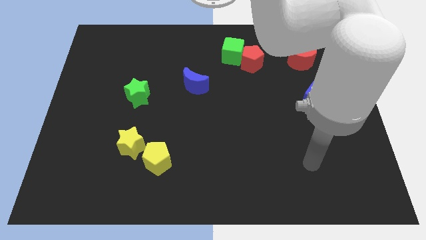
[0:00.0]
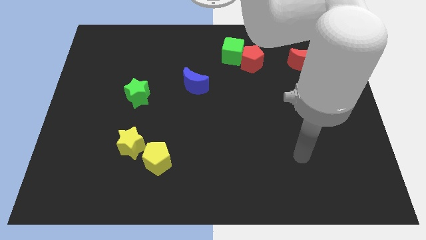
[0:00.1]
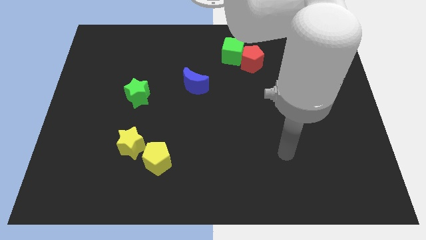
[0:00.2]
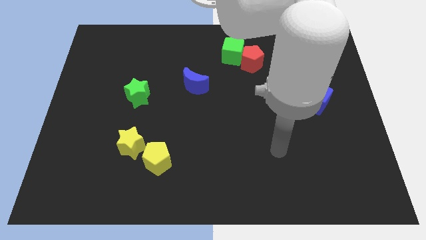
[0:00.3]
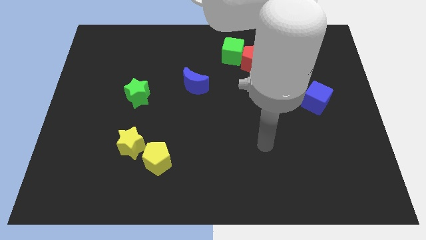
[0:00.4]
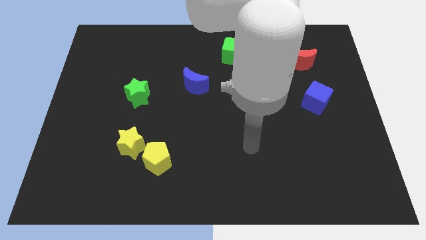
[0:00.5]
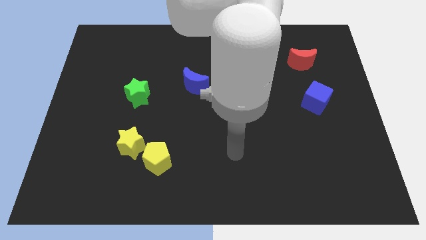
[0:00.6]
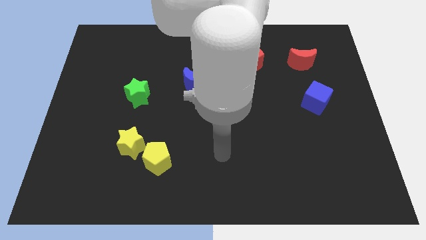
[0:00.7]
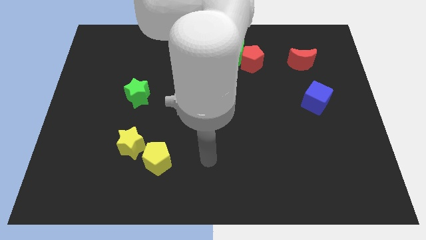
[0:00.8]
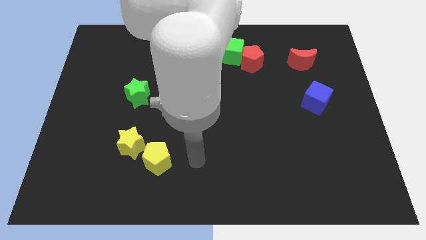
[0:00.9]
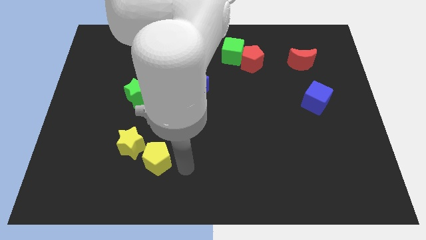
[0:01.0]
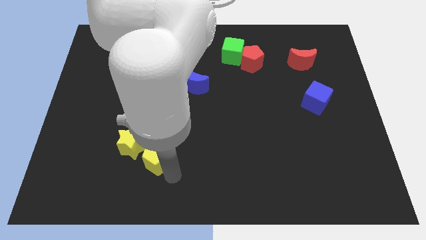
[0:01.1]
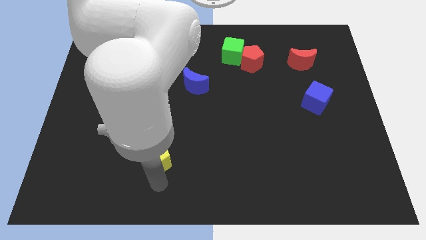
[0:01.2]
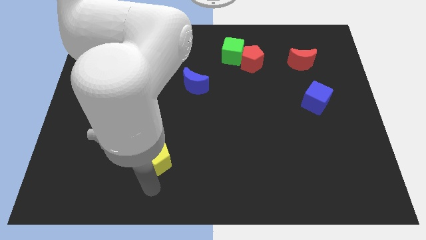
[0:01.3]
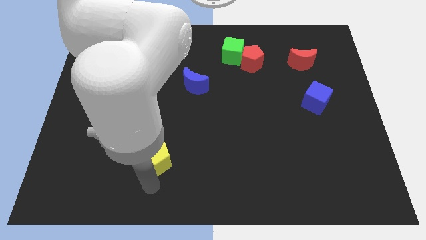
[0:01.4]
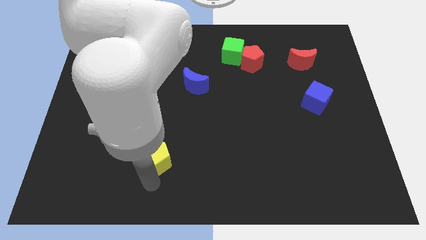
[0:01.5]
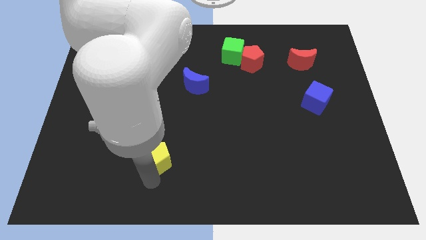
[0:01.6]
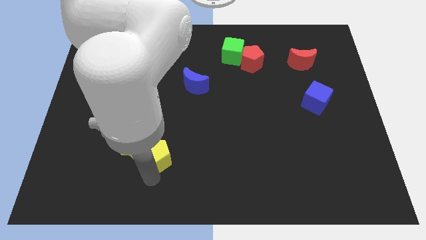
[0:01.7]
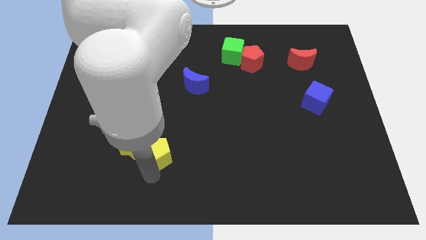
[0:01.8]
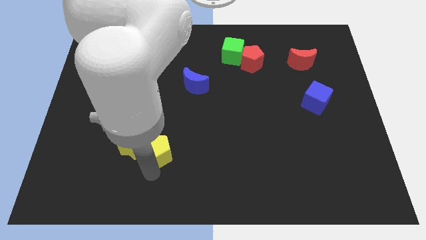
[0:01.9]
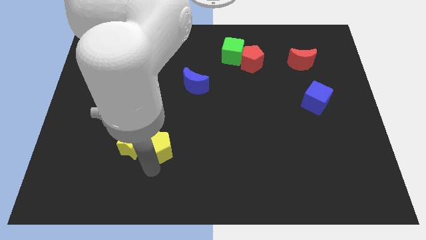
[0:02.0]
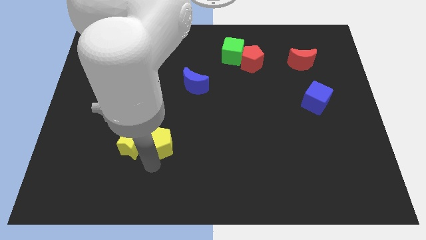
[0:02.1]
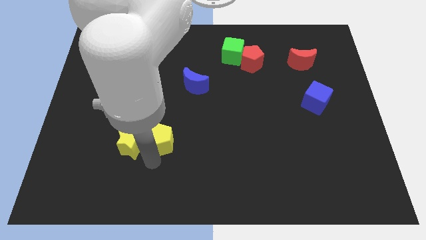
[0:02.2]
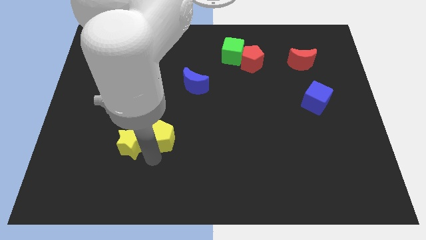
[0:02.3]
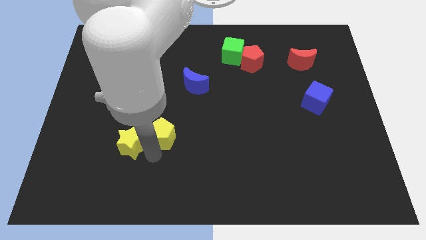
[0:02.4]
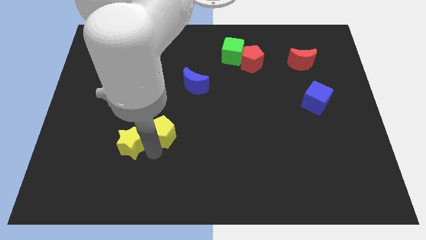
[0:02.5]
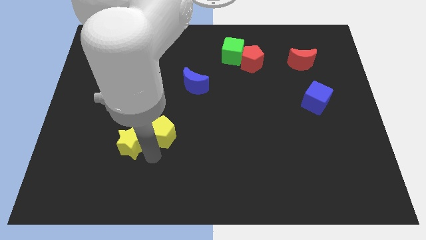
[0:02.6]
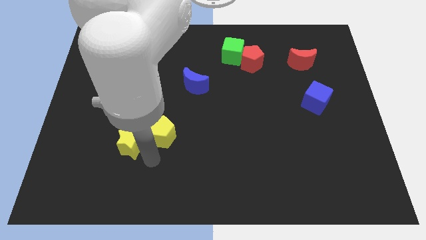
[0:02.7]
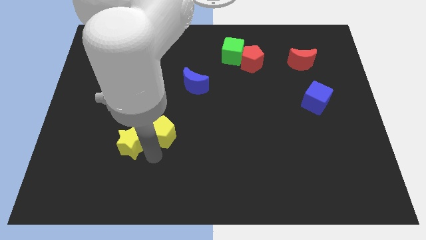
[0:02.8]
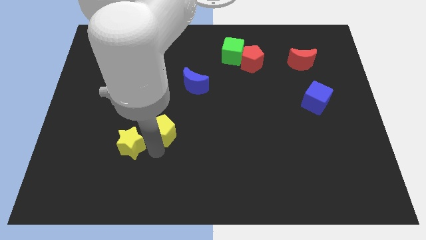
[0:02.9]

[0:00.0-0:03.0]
slide the yellow pentagon somewhat upwards

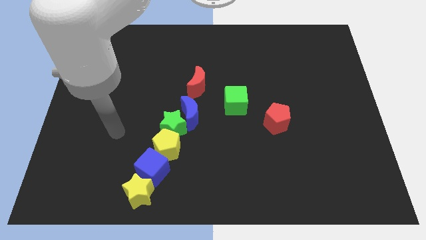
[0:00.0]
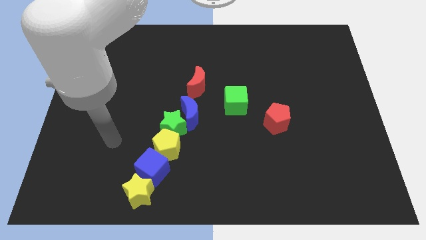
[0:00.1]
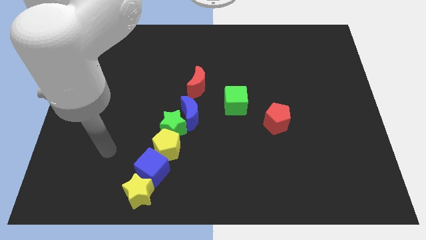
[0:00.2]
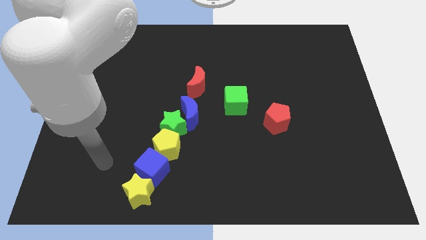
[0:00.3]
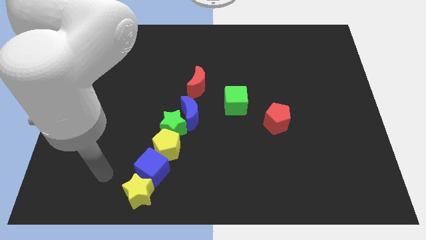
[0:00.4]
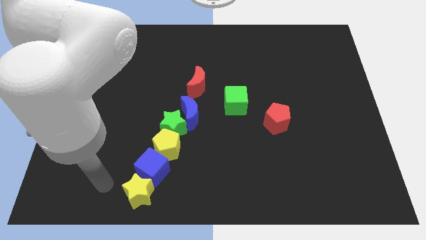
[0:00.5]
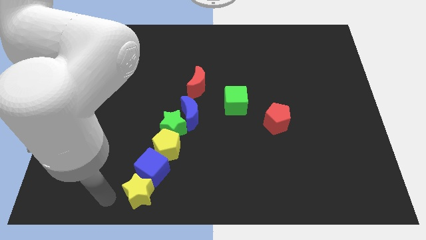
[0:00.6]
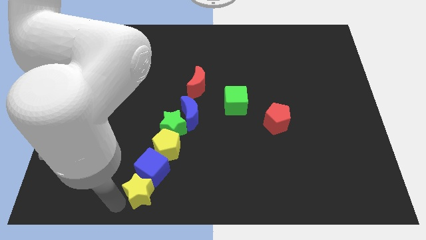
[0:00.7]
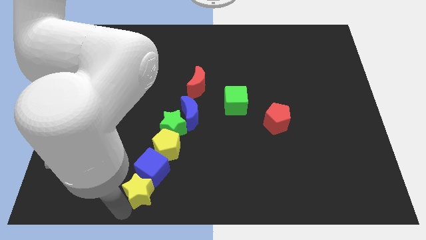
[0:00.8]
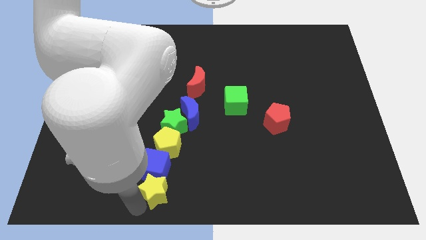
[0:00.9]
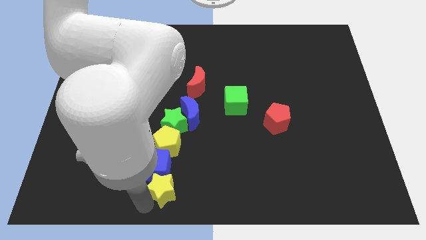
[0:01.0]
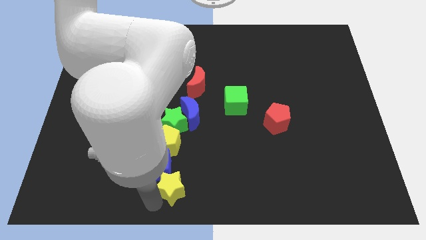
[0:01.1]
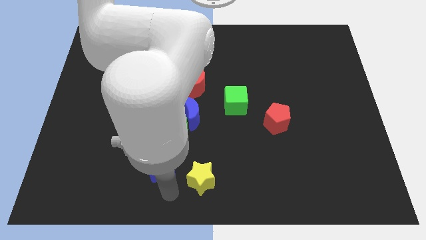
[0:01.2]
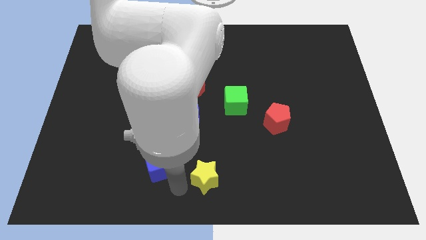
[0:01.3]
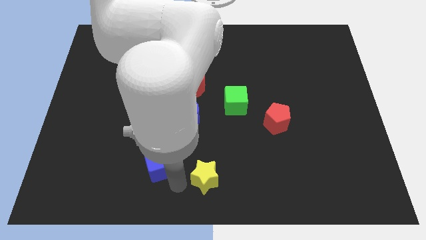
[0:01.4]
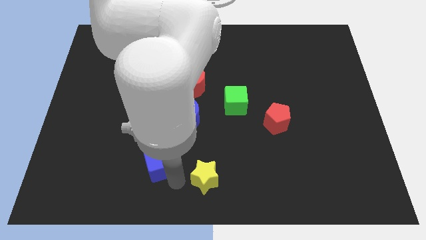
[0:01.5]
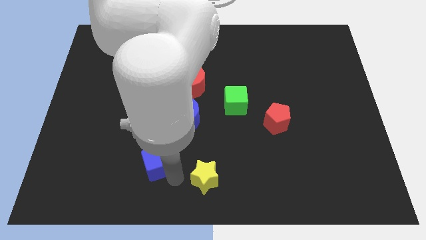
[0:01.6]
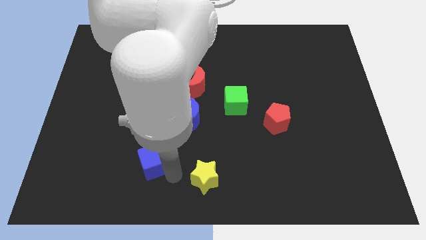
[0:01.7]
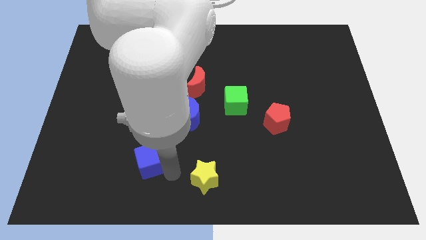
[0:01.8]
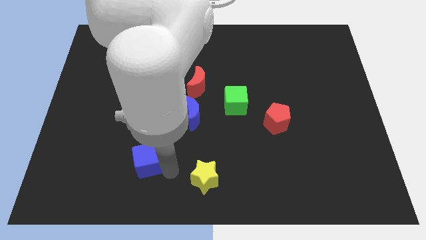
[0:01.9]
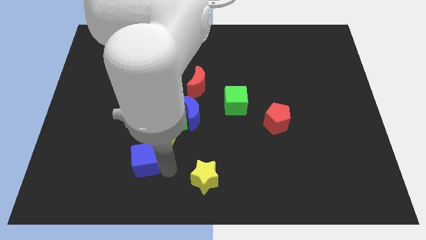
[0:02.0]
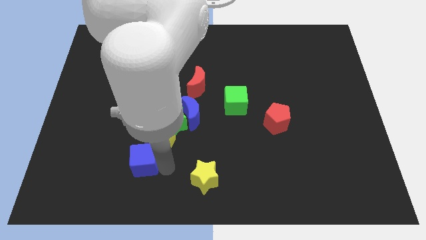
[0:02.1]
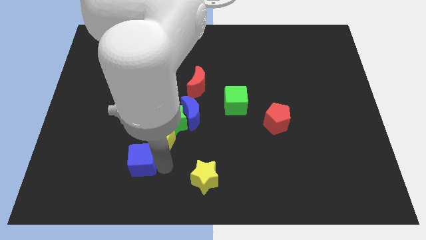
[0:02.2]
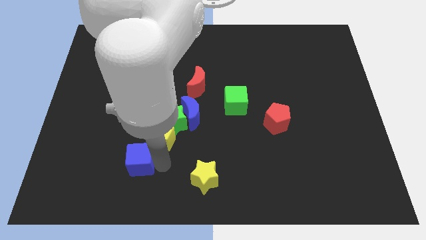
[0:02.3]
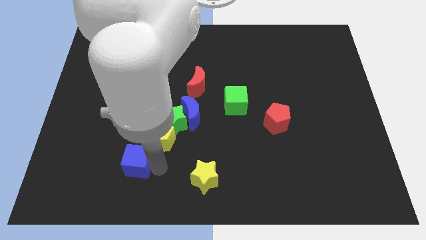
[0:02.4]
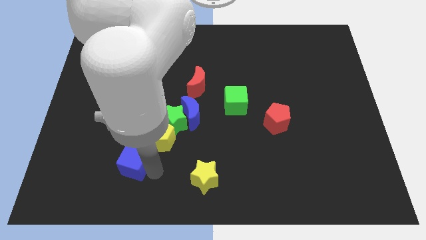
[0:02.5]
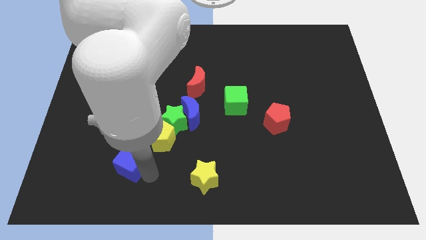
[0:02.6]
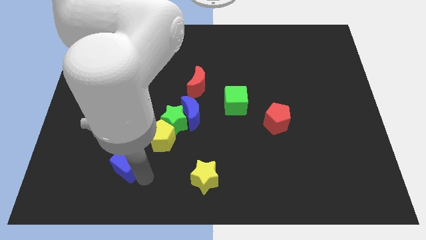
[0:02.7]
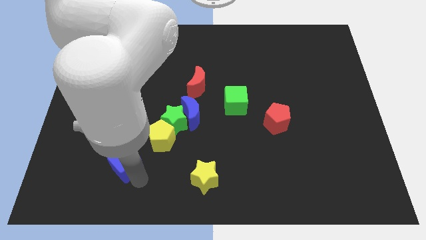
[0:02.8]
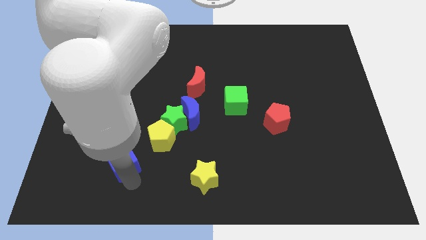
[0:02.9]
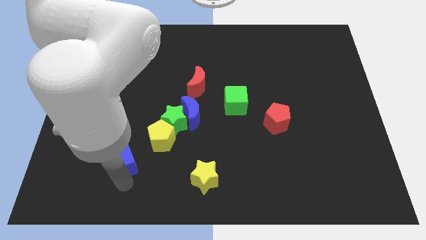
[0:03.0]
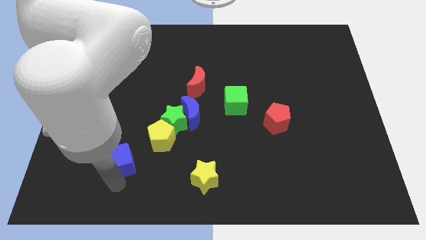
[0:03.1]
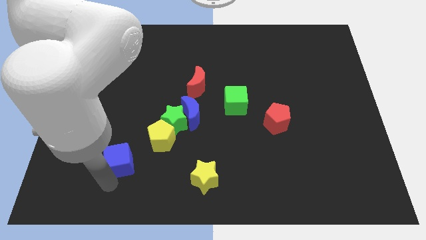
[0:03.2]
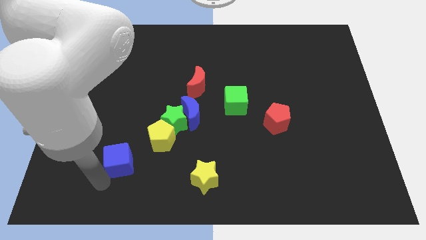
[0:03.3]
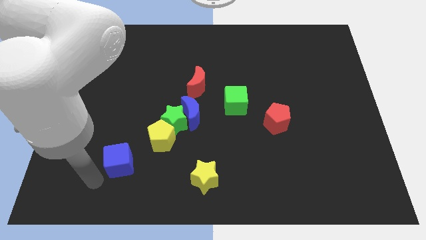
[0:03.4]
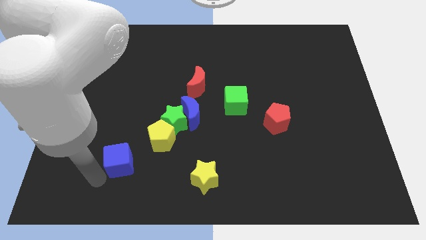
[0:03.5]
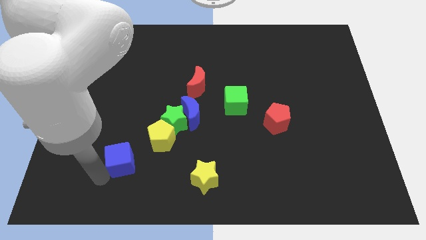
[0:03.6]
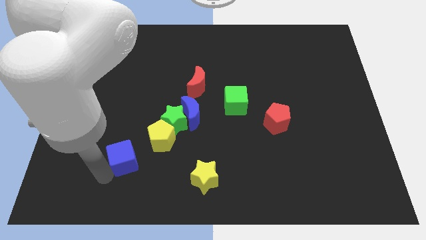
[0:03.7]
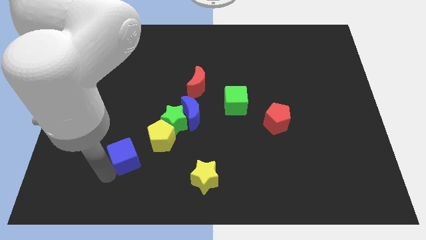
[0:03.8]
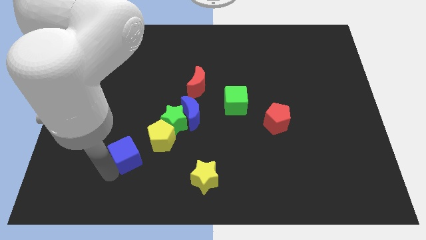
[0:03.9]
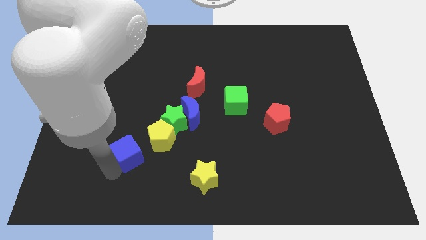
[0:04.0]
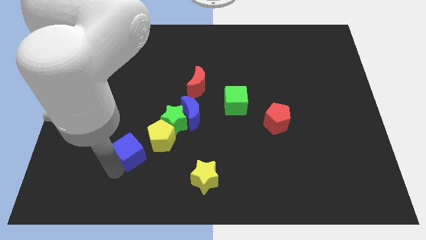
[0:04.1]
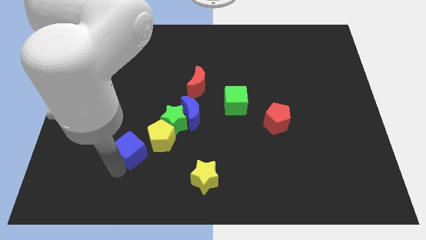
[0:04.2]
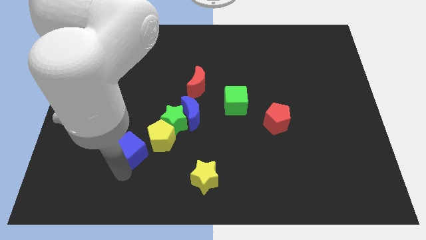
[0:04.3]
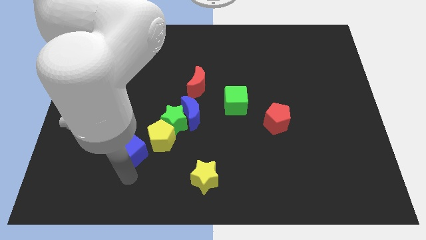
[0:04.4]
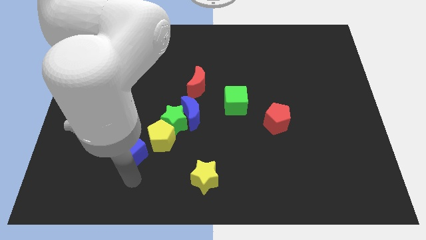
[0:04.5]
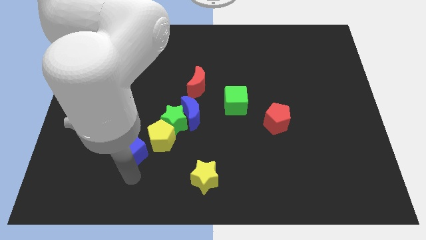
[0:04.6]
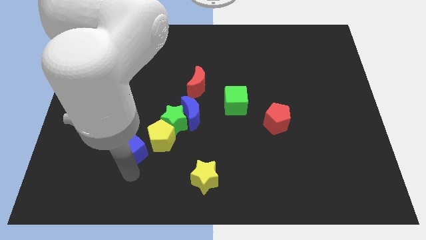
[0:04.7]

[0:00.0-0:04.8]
slide the blue cube upwards and then left somewhat

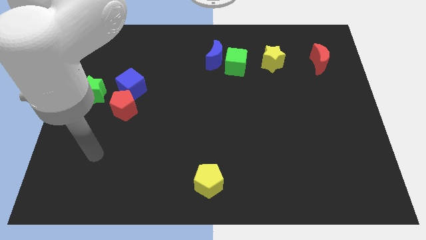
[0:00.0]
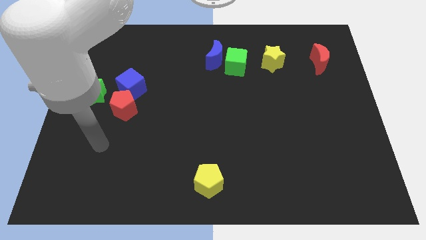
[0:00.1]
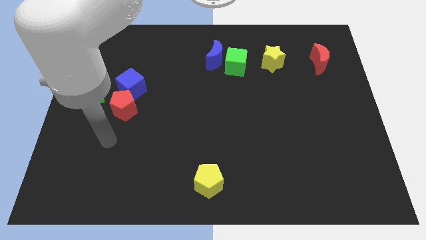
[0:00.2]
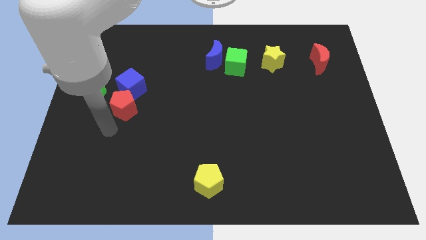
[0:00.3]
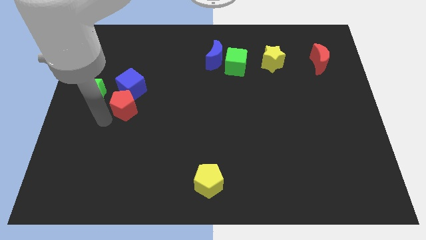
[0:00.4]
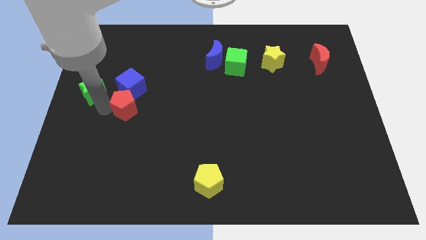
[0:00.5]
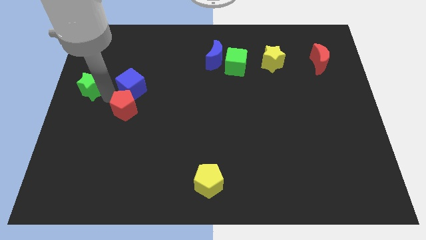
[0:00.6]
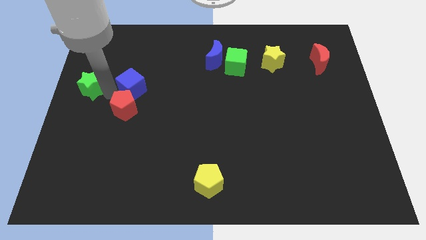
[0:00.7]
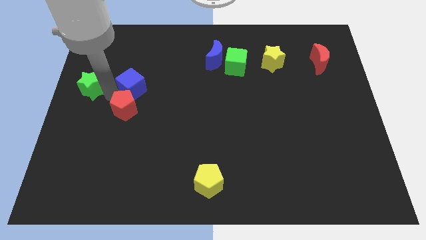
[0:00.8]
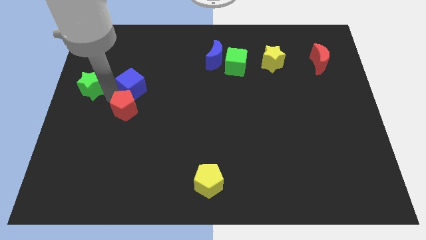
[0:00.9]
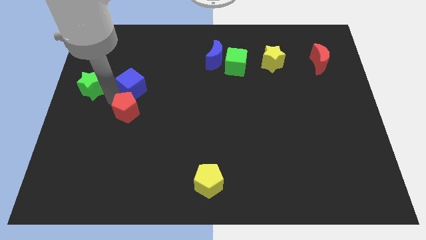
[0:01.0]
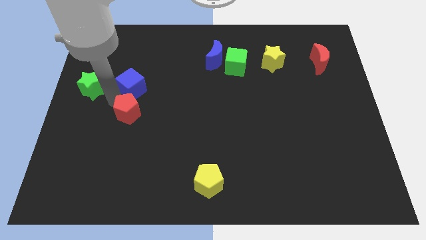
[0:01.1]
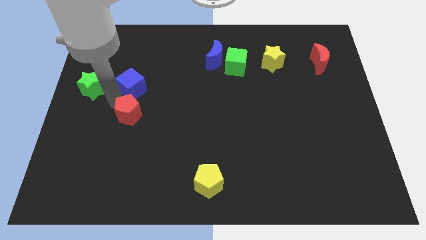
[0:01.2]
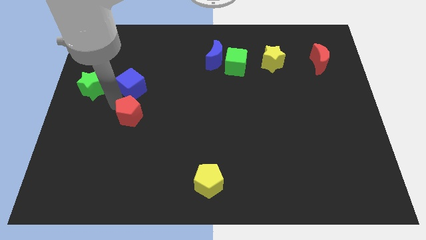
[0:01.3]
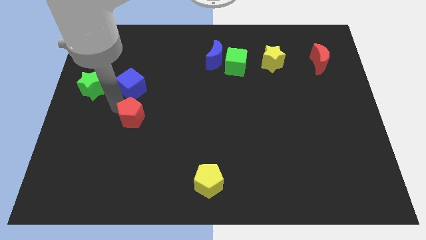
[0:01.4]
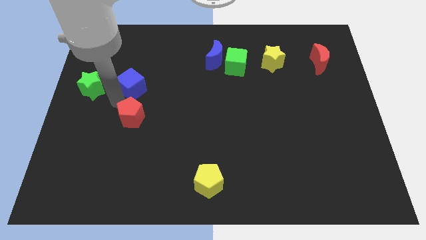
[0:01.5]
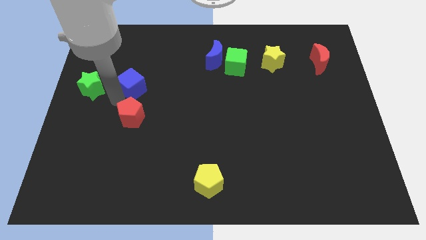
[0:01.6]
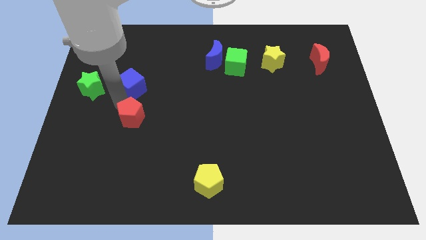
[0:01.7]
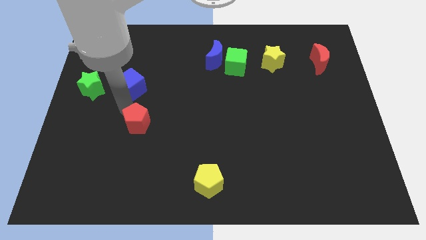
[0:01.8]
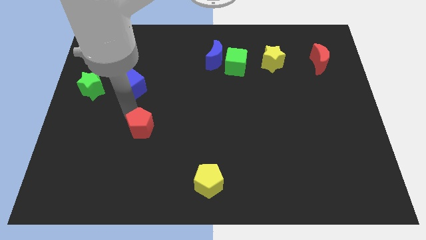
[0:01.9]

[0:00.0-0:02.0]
push the red pentagon somewhat diagonally downwards and to the right
